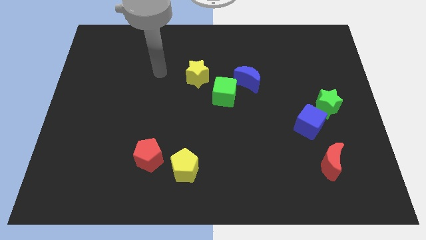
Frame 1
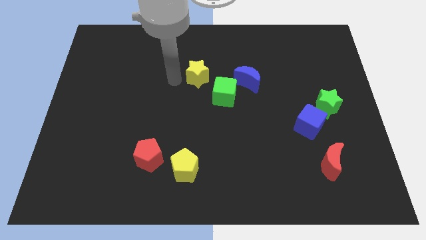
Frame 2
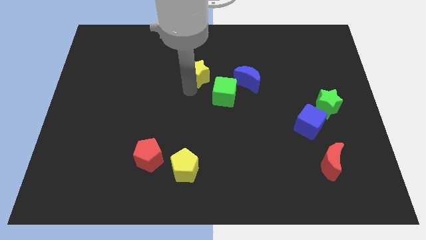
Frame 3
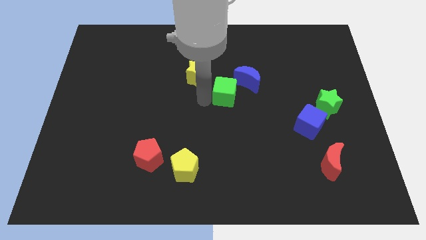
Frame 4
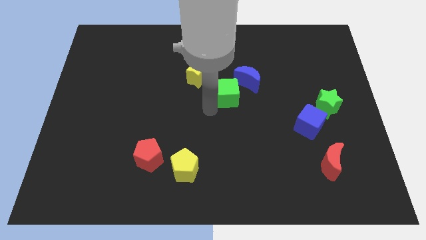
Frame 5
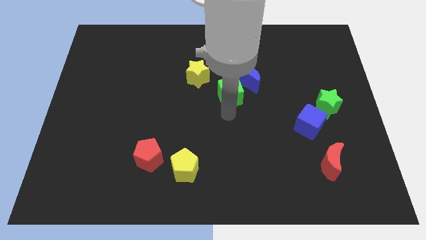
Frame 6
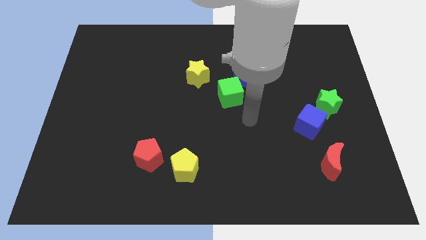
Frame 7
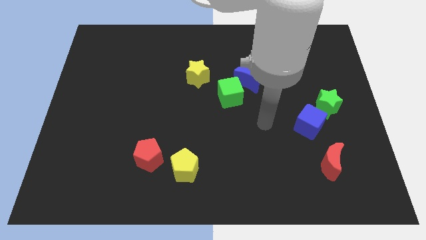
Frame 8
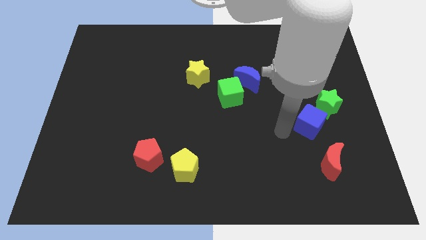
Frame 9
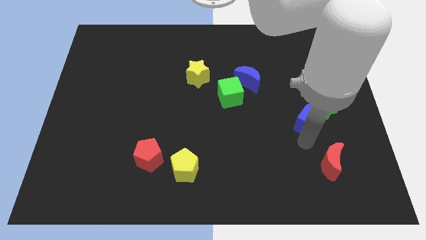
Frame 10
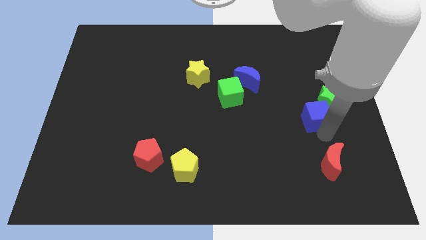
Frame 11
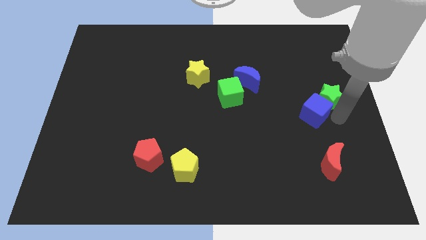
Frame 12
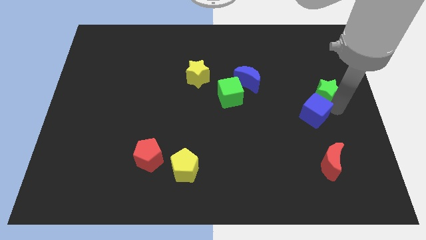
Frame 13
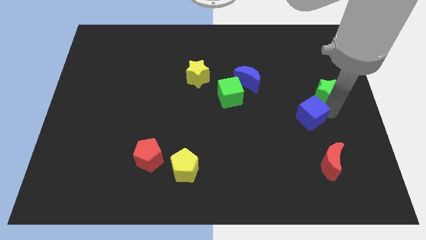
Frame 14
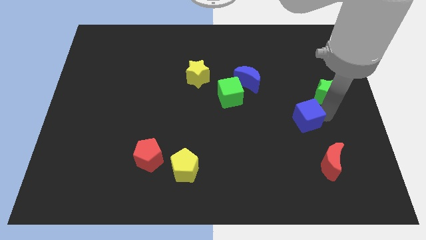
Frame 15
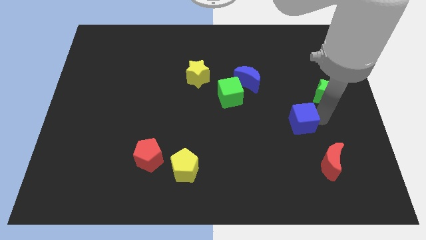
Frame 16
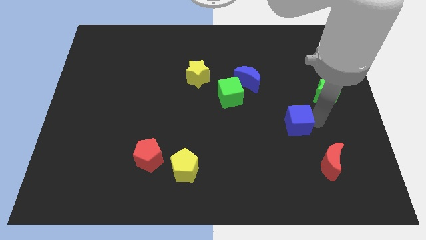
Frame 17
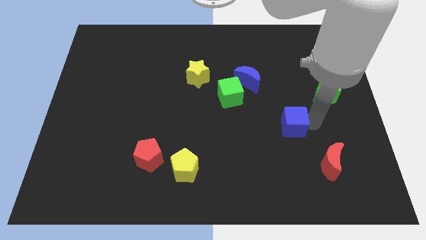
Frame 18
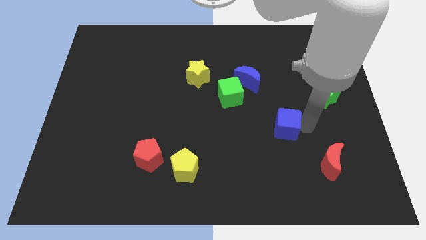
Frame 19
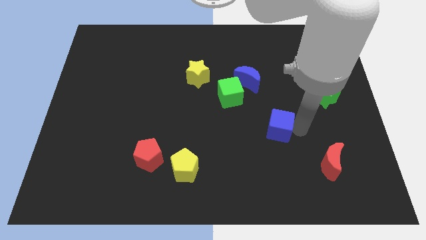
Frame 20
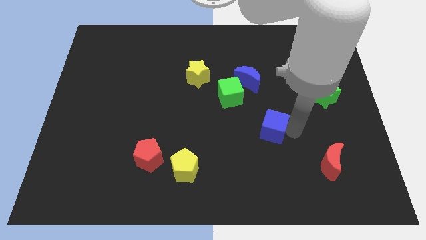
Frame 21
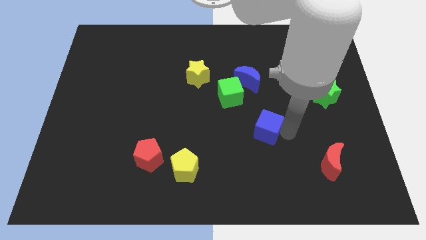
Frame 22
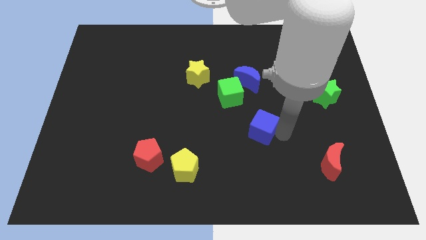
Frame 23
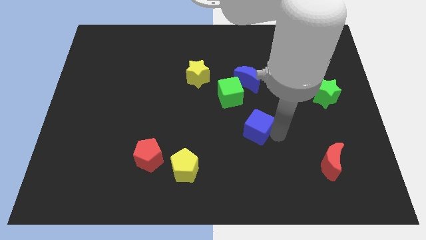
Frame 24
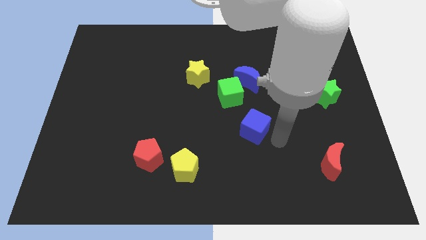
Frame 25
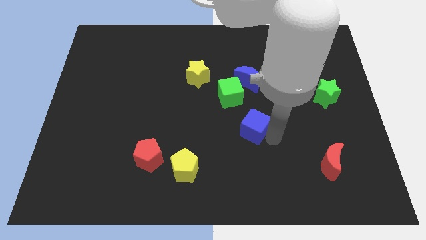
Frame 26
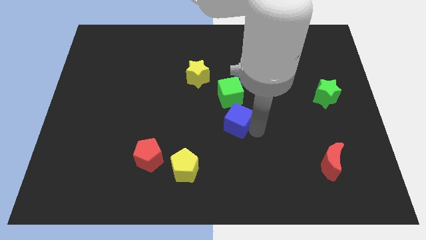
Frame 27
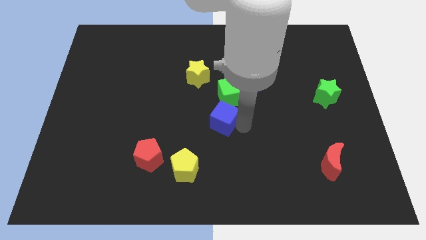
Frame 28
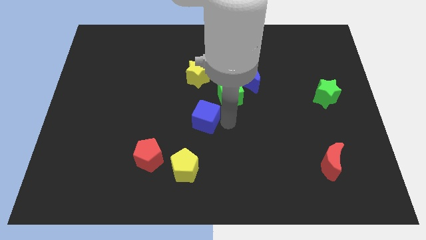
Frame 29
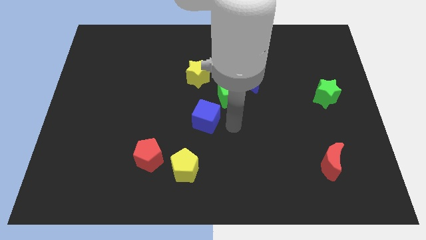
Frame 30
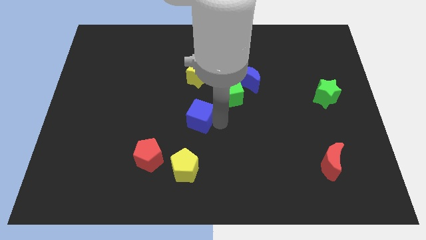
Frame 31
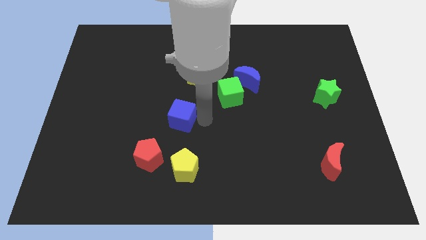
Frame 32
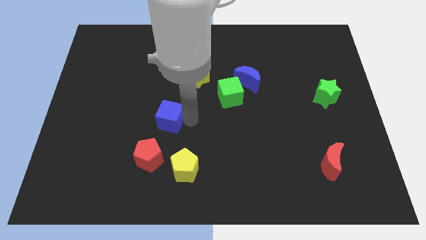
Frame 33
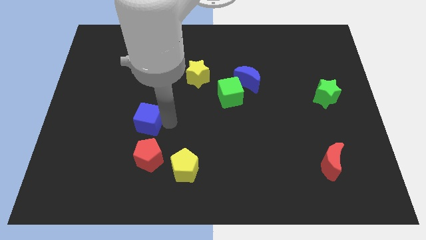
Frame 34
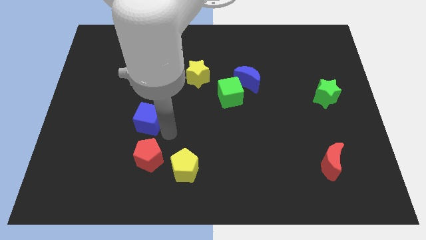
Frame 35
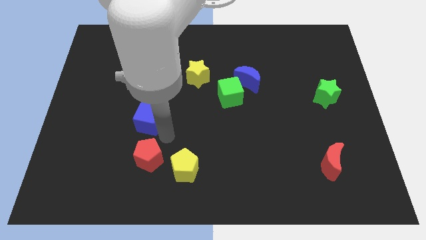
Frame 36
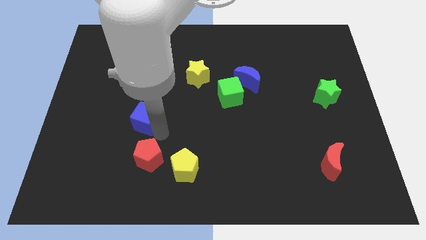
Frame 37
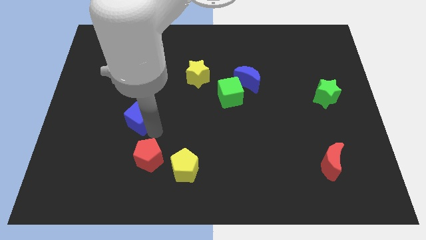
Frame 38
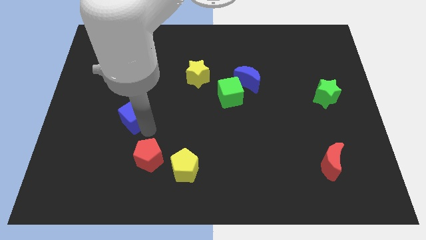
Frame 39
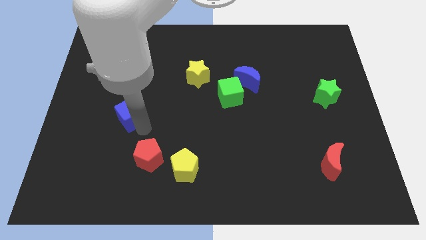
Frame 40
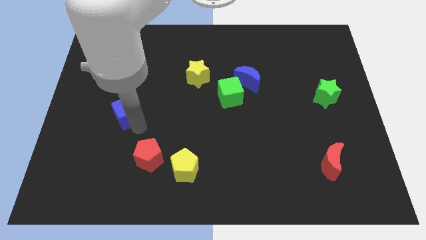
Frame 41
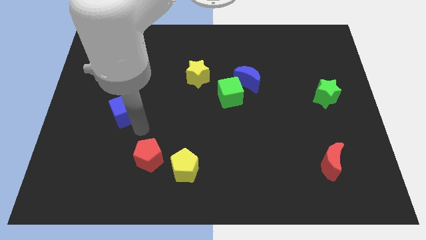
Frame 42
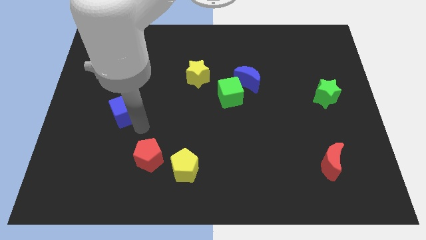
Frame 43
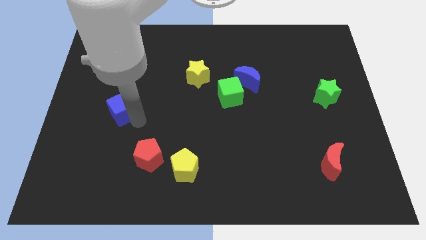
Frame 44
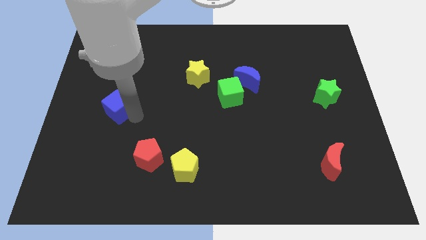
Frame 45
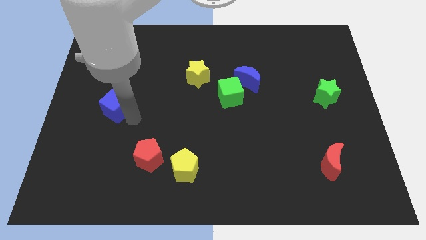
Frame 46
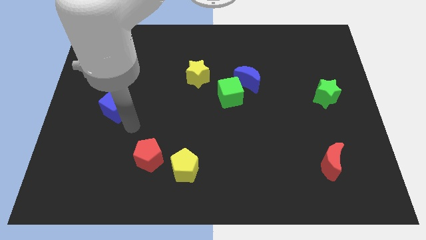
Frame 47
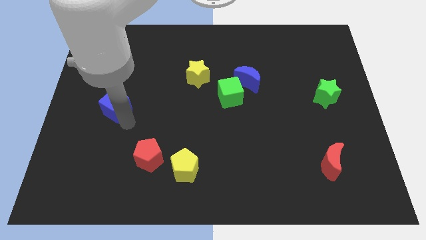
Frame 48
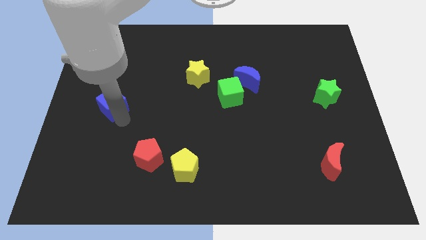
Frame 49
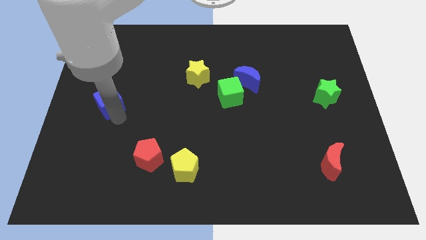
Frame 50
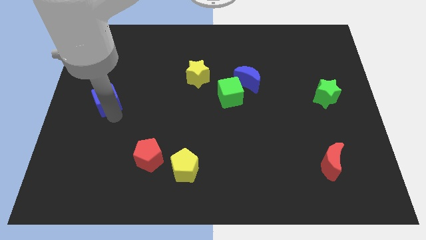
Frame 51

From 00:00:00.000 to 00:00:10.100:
slide the blue cube to the left side of the board

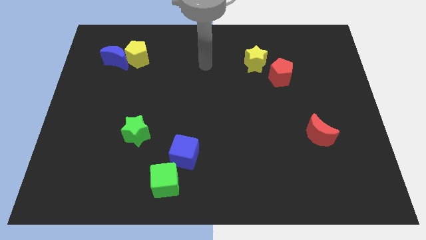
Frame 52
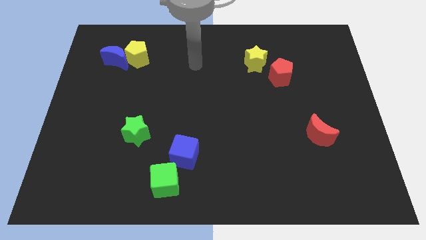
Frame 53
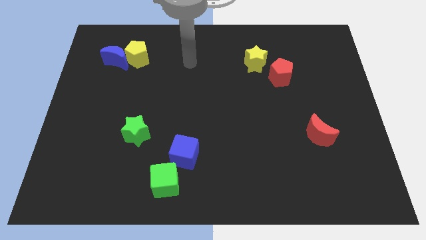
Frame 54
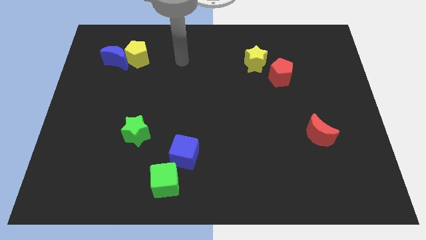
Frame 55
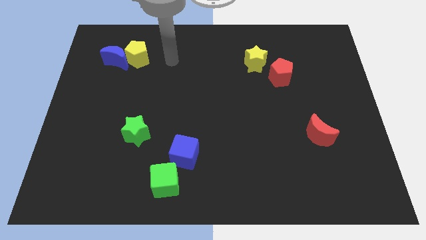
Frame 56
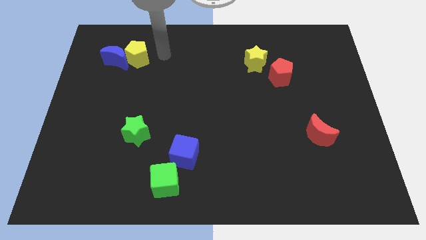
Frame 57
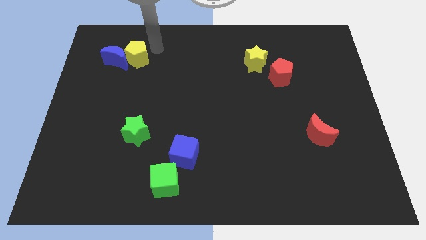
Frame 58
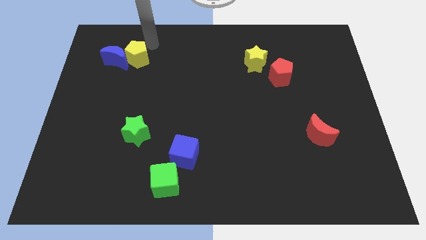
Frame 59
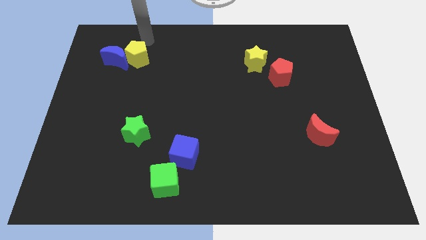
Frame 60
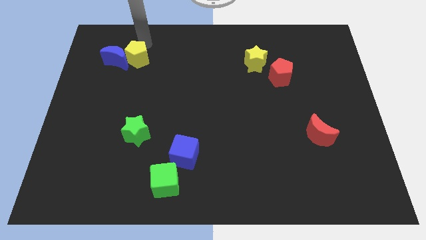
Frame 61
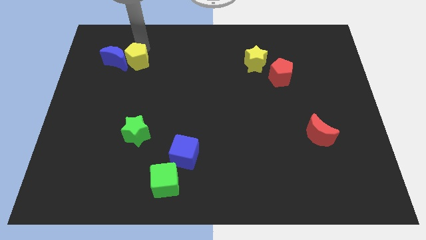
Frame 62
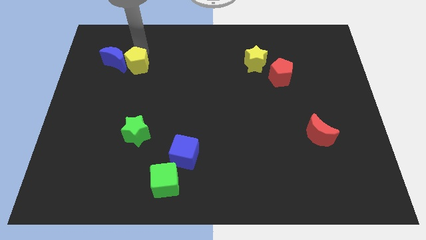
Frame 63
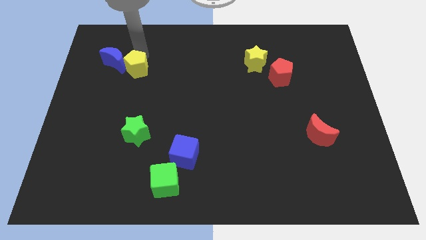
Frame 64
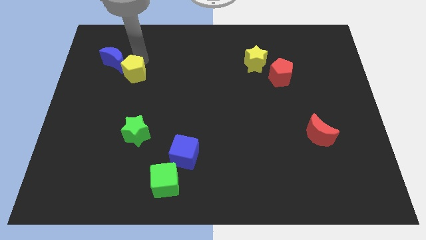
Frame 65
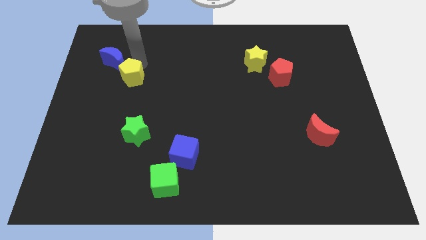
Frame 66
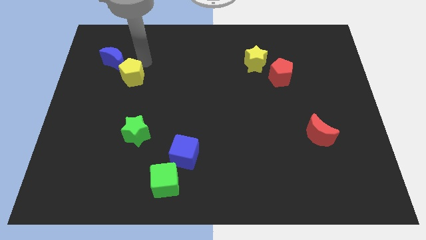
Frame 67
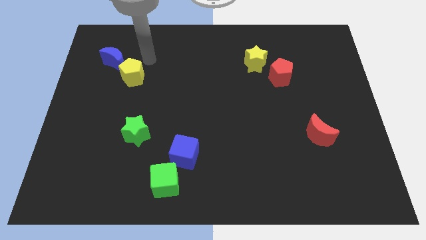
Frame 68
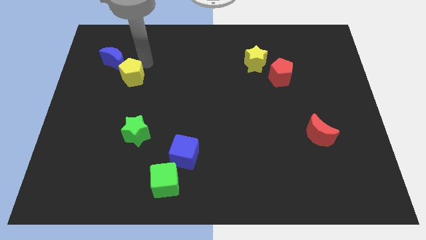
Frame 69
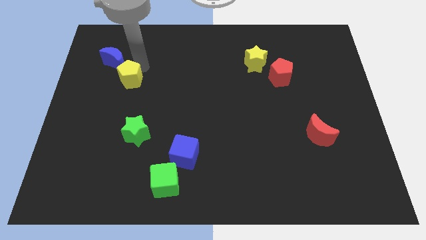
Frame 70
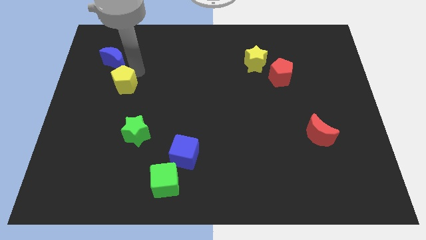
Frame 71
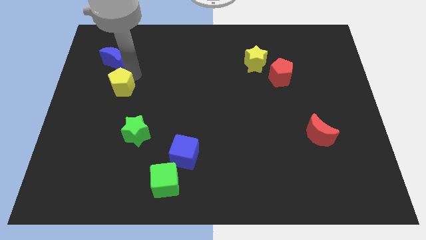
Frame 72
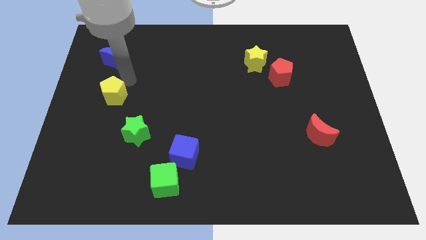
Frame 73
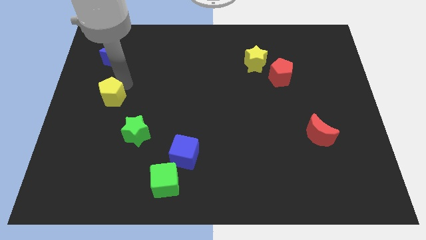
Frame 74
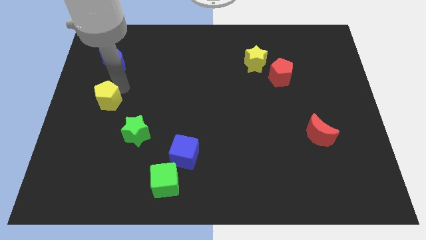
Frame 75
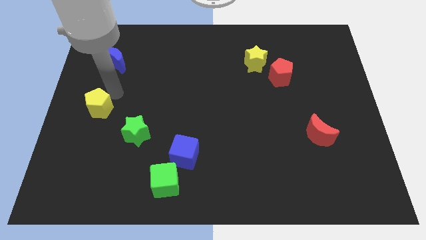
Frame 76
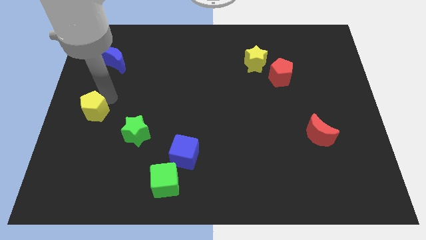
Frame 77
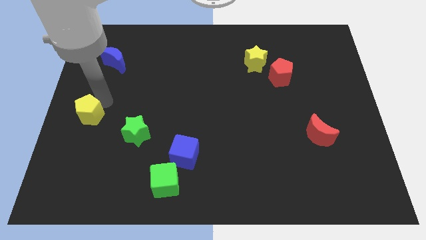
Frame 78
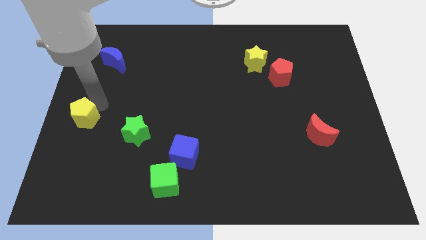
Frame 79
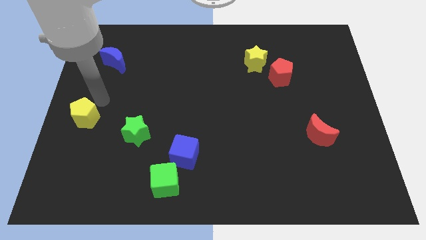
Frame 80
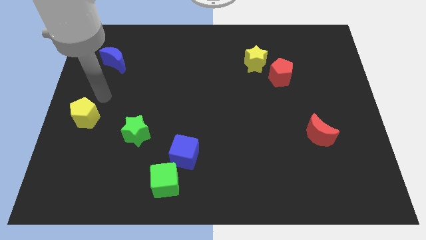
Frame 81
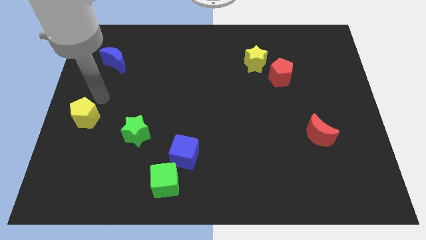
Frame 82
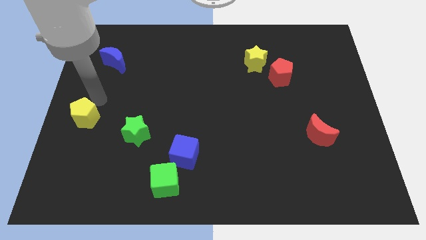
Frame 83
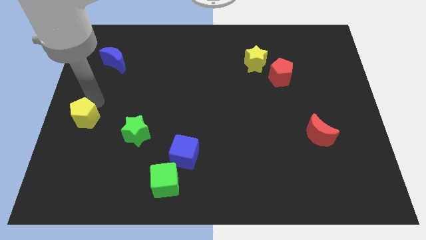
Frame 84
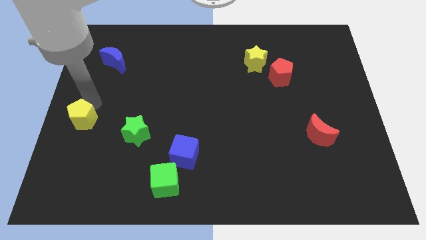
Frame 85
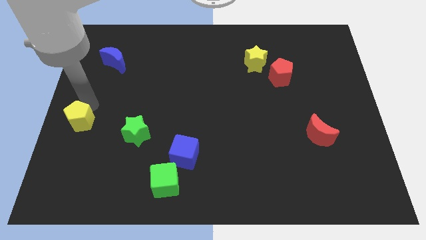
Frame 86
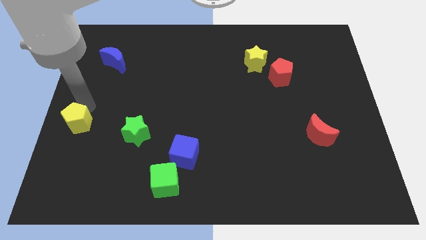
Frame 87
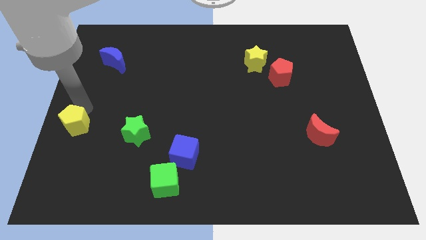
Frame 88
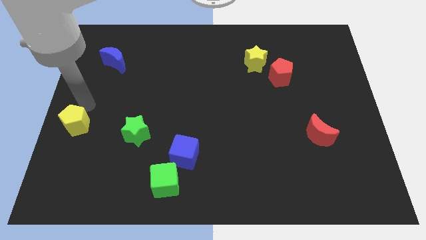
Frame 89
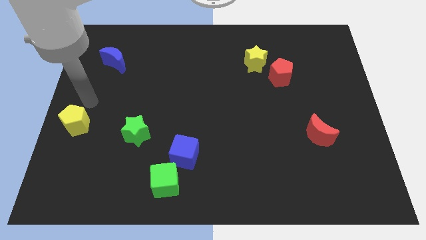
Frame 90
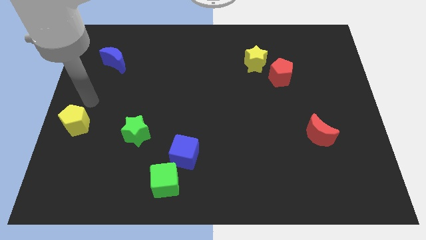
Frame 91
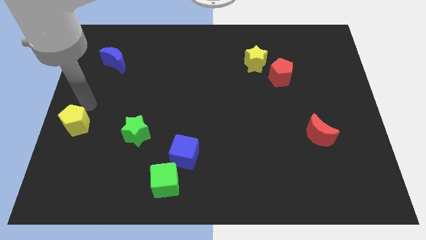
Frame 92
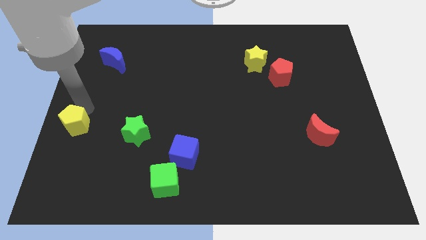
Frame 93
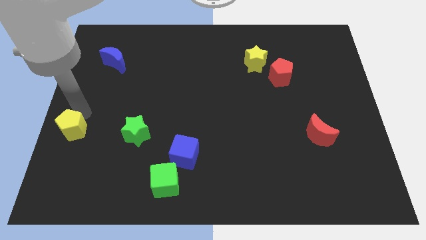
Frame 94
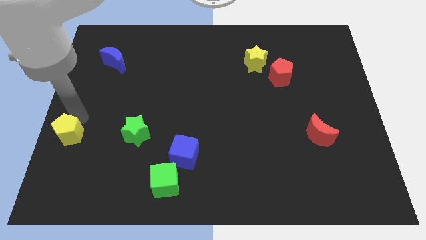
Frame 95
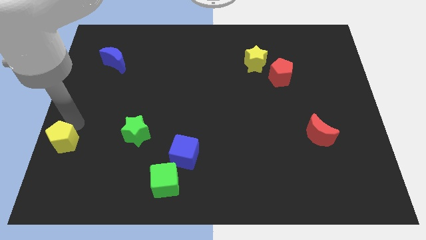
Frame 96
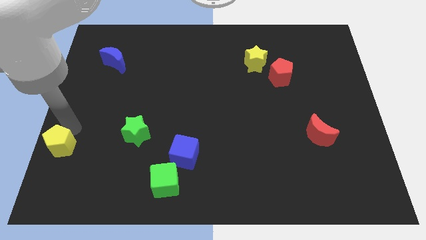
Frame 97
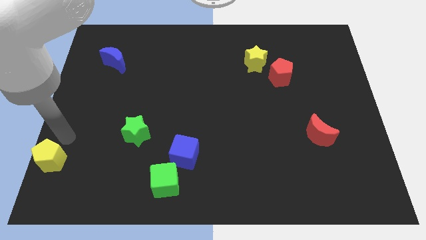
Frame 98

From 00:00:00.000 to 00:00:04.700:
put the yellow pentagon to the lower left corner
